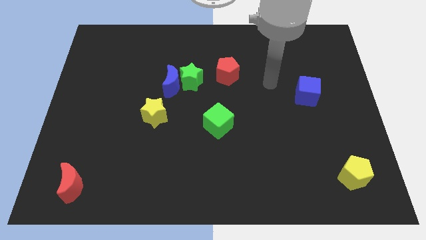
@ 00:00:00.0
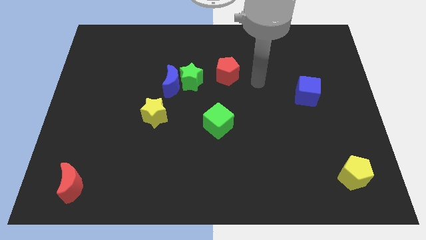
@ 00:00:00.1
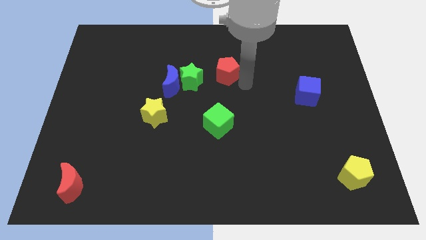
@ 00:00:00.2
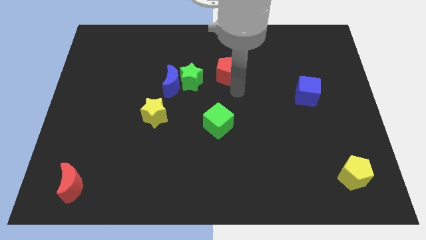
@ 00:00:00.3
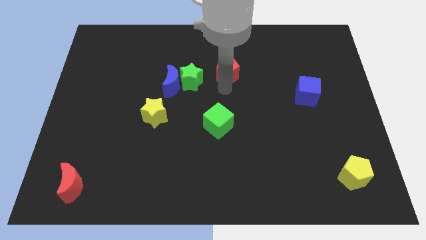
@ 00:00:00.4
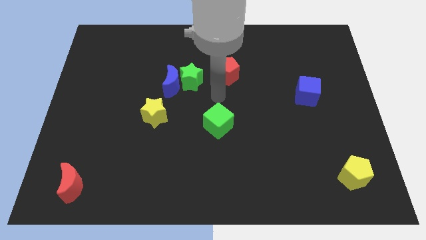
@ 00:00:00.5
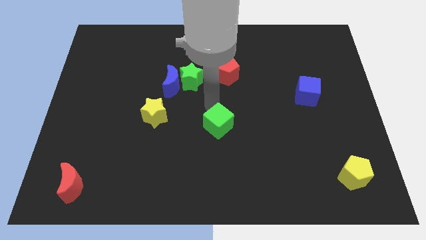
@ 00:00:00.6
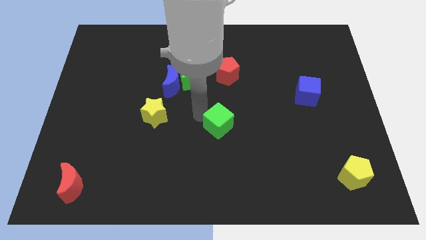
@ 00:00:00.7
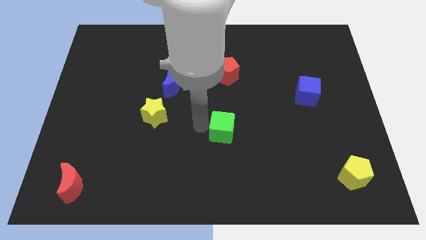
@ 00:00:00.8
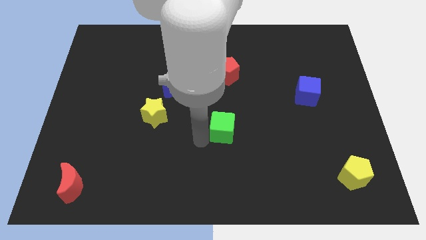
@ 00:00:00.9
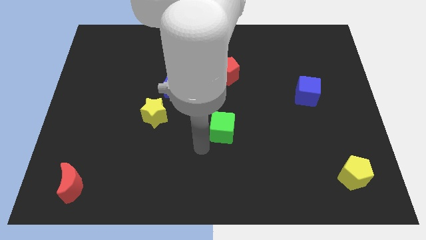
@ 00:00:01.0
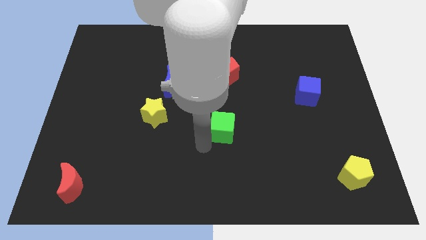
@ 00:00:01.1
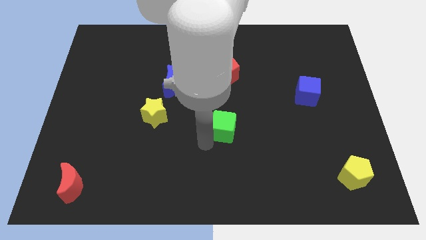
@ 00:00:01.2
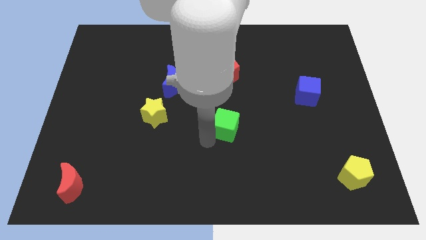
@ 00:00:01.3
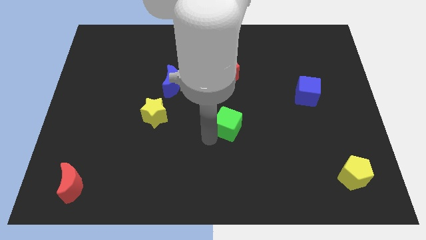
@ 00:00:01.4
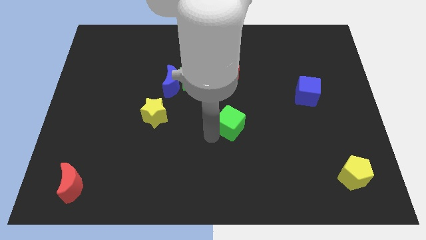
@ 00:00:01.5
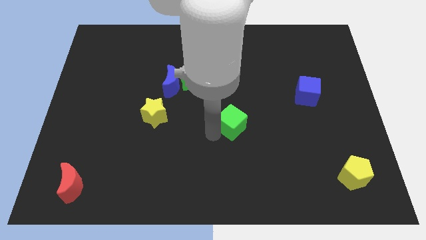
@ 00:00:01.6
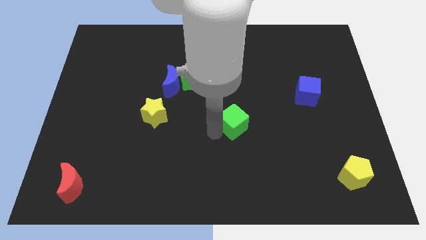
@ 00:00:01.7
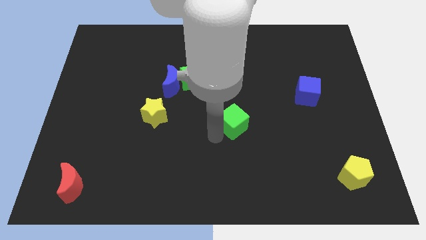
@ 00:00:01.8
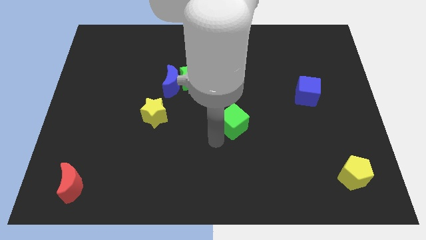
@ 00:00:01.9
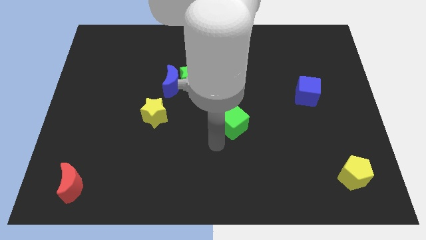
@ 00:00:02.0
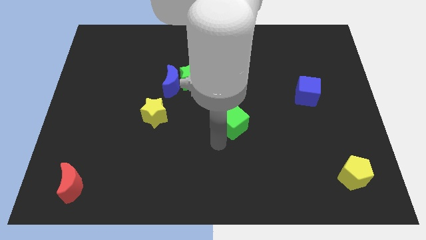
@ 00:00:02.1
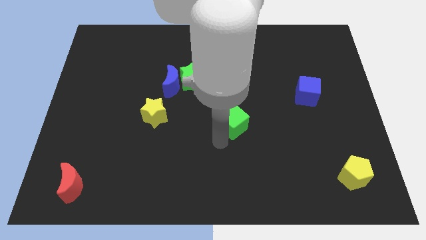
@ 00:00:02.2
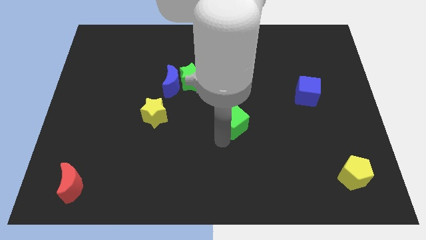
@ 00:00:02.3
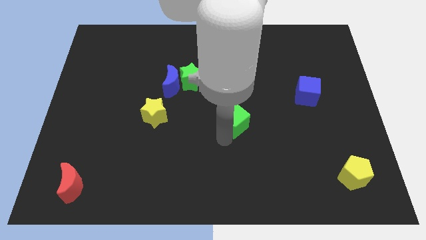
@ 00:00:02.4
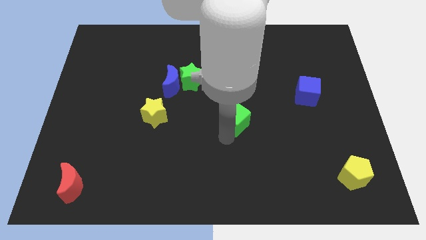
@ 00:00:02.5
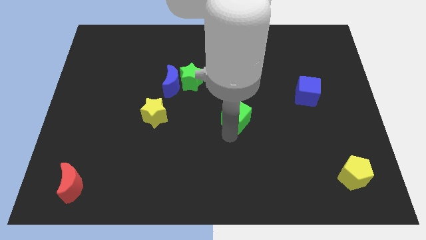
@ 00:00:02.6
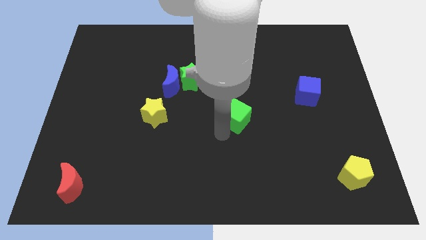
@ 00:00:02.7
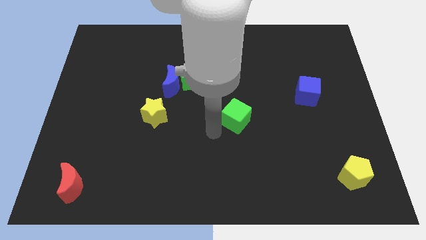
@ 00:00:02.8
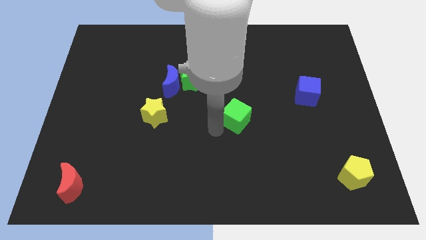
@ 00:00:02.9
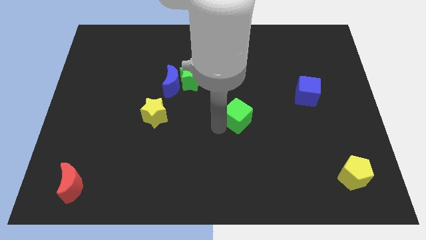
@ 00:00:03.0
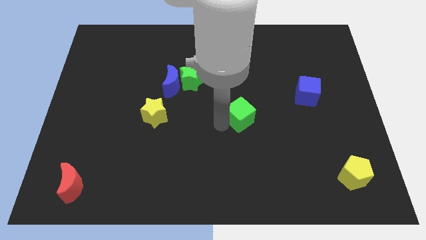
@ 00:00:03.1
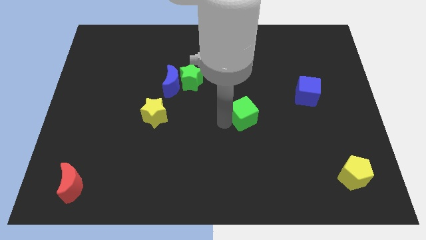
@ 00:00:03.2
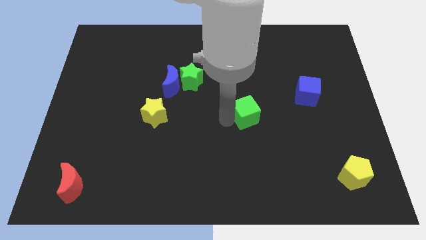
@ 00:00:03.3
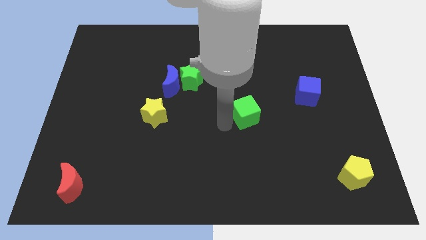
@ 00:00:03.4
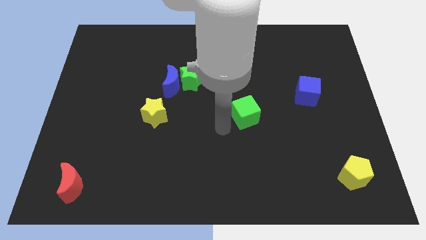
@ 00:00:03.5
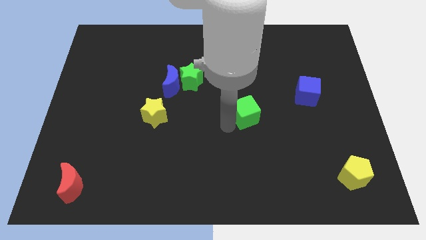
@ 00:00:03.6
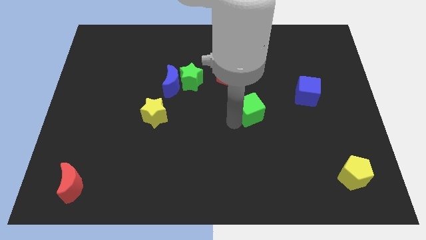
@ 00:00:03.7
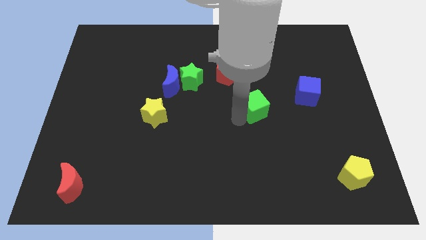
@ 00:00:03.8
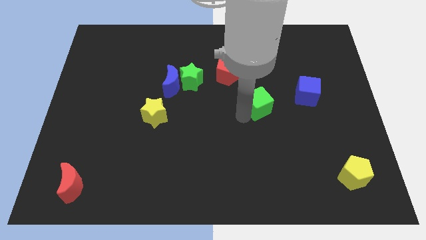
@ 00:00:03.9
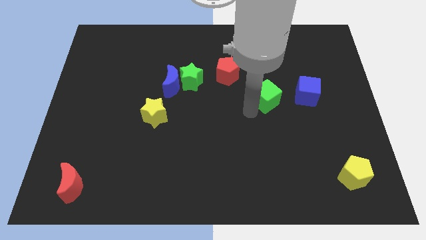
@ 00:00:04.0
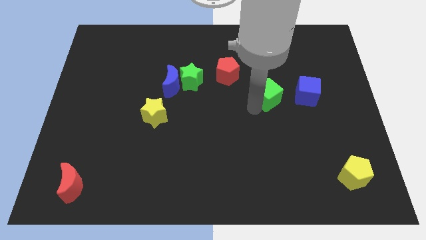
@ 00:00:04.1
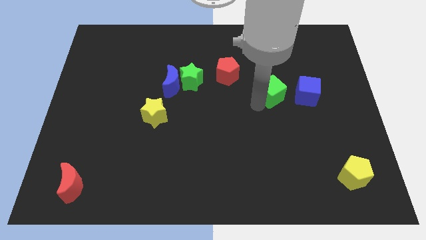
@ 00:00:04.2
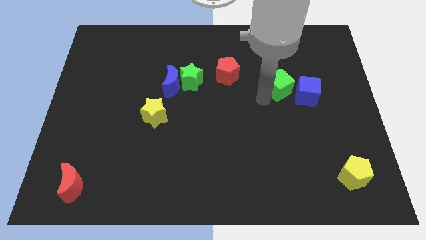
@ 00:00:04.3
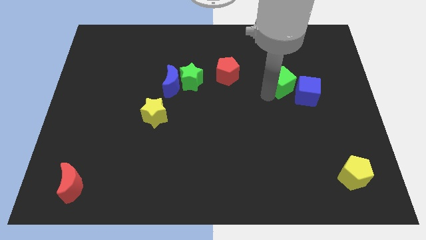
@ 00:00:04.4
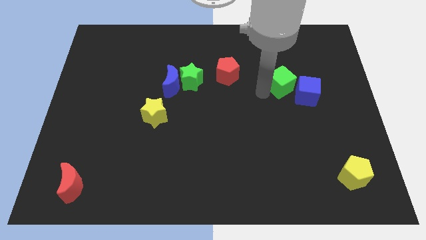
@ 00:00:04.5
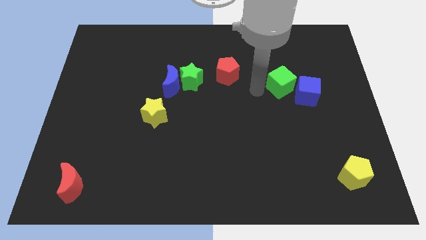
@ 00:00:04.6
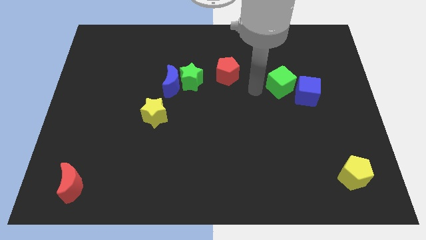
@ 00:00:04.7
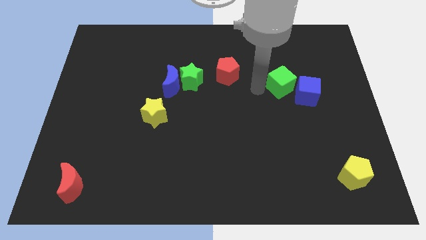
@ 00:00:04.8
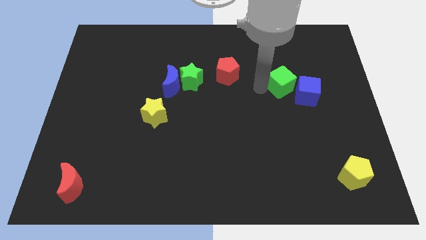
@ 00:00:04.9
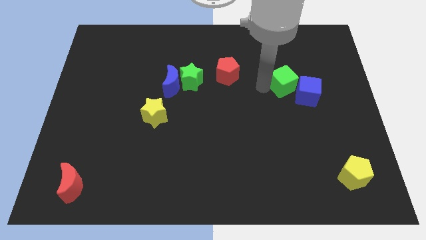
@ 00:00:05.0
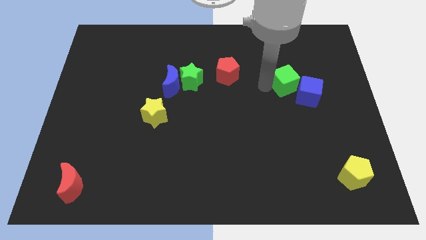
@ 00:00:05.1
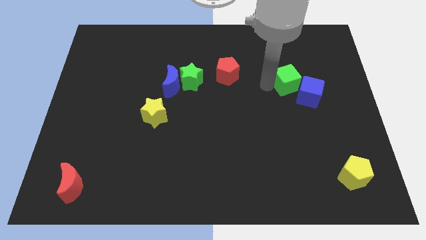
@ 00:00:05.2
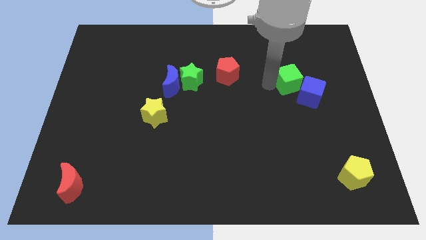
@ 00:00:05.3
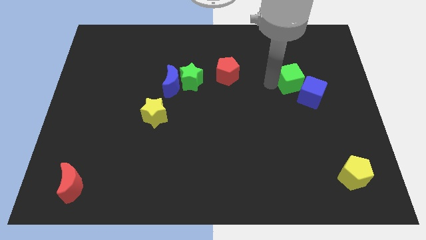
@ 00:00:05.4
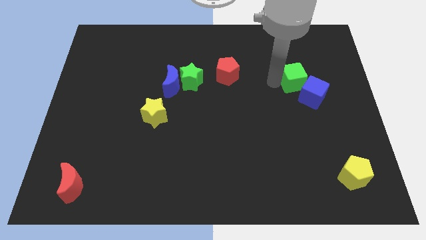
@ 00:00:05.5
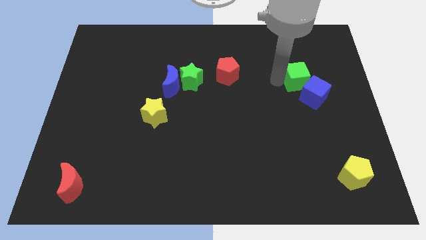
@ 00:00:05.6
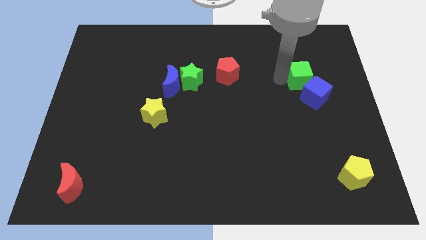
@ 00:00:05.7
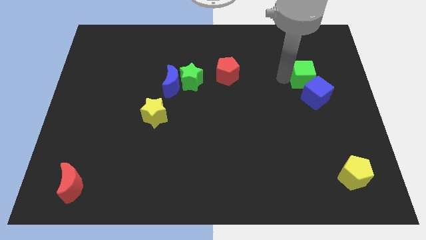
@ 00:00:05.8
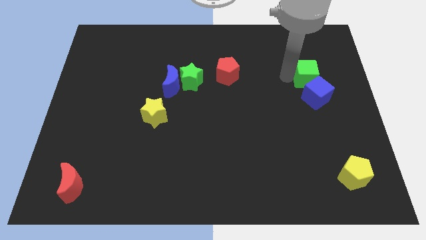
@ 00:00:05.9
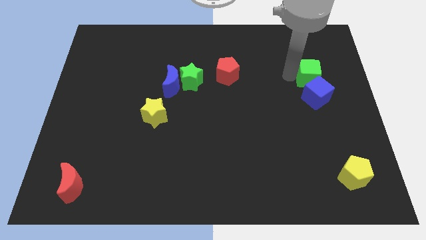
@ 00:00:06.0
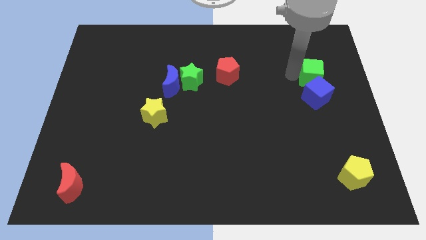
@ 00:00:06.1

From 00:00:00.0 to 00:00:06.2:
slide the green cube to the top right side of the blue cube
